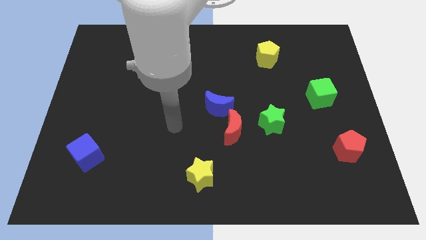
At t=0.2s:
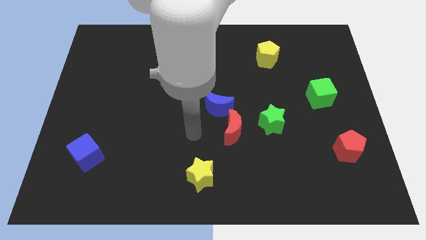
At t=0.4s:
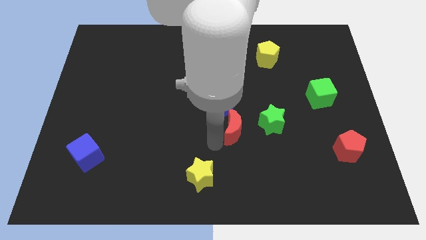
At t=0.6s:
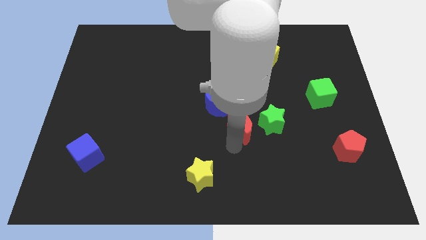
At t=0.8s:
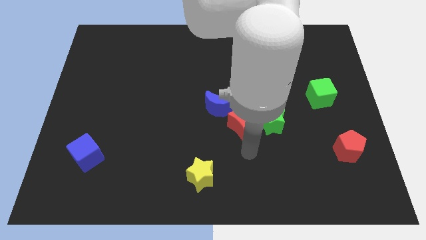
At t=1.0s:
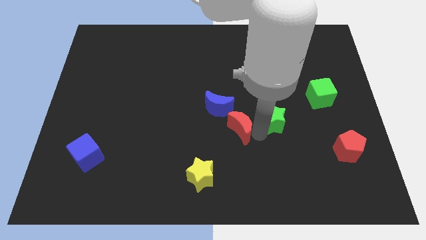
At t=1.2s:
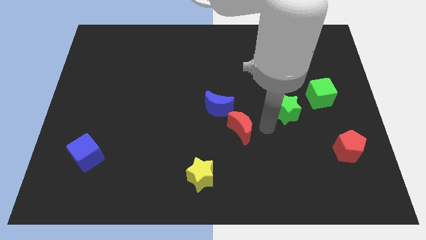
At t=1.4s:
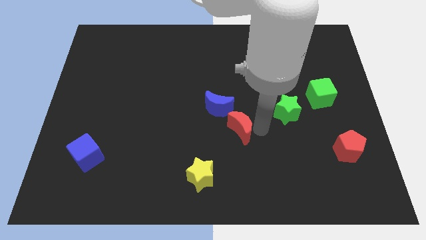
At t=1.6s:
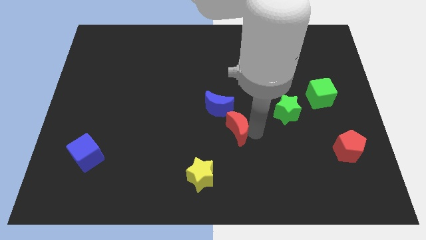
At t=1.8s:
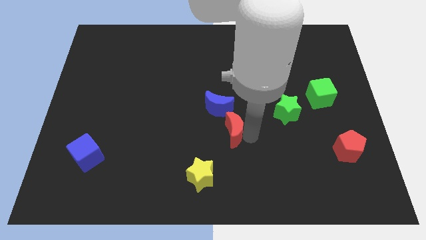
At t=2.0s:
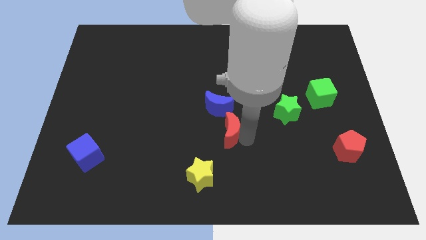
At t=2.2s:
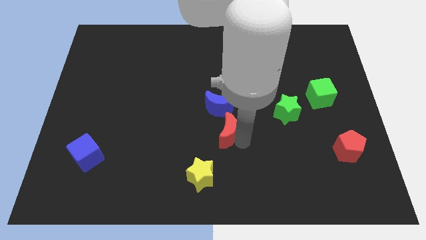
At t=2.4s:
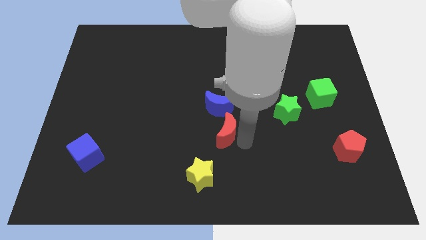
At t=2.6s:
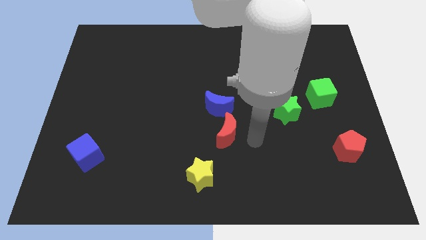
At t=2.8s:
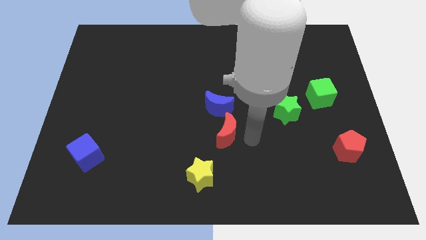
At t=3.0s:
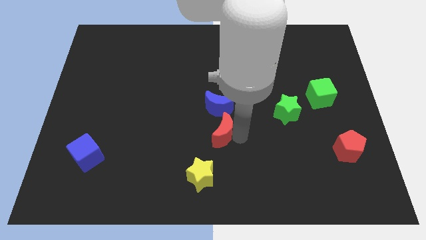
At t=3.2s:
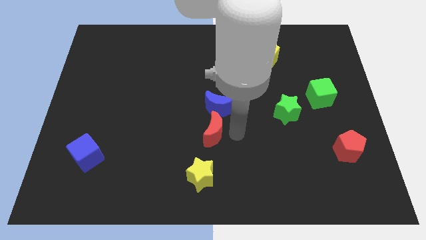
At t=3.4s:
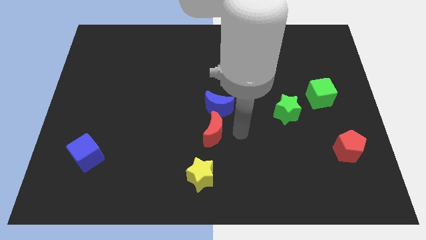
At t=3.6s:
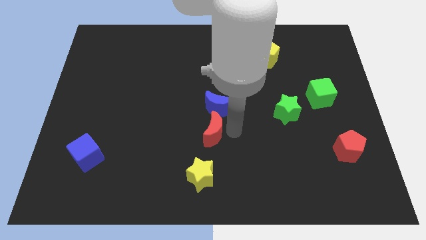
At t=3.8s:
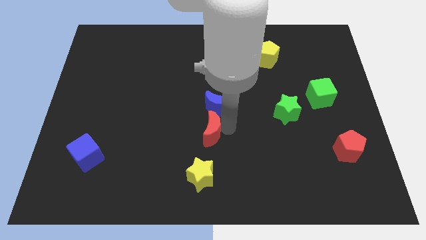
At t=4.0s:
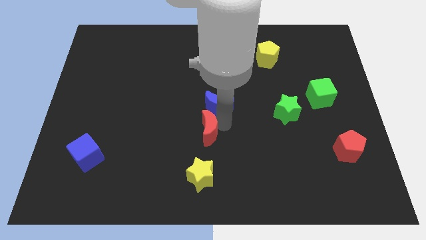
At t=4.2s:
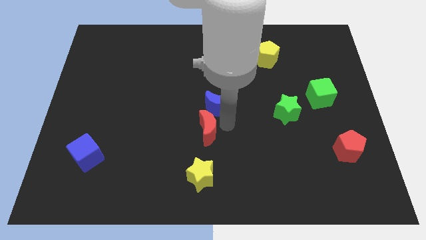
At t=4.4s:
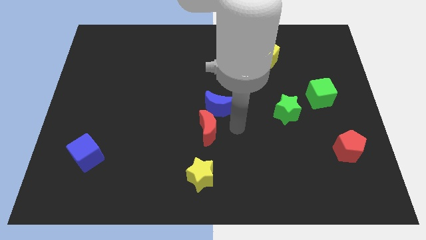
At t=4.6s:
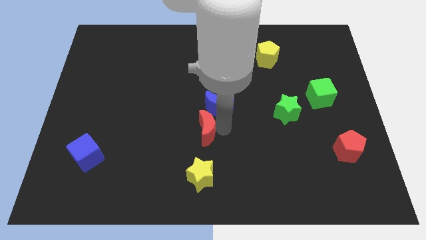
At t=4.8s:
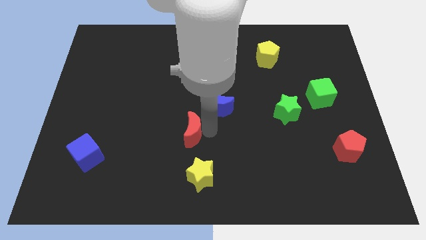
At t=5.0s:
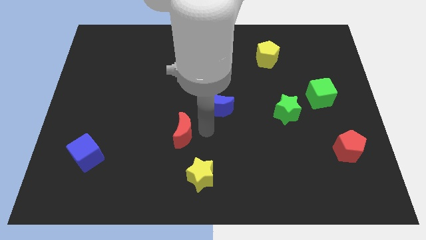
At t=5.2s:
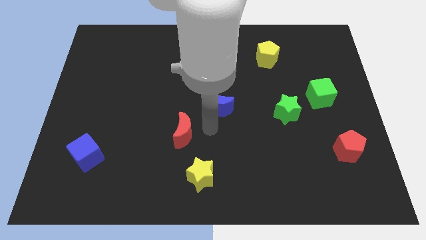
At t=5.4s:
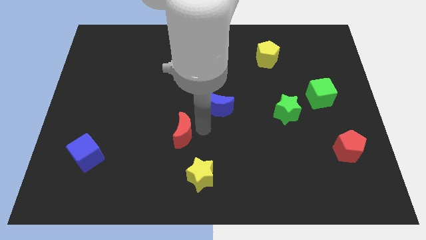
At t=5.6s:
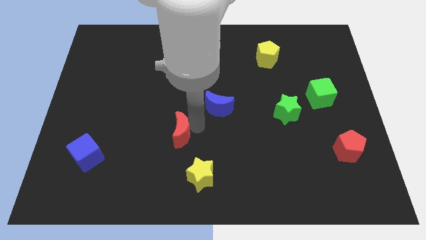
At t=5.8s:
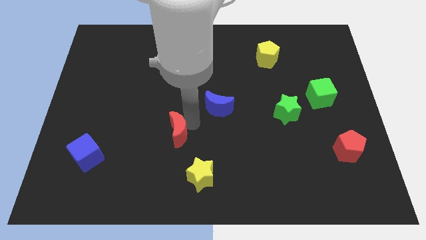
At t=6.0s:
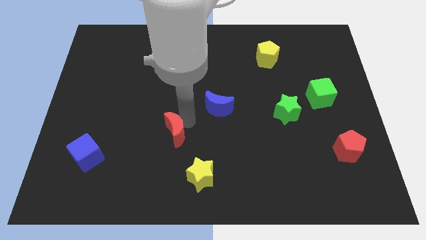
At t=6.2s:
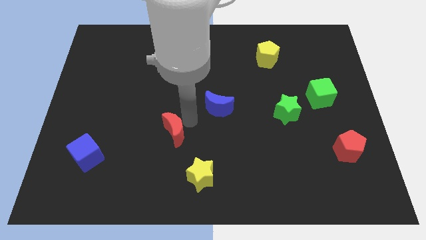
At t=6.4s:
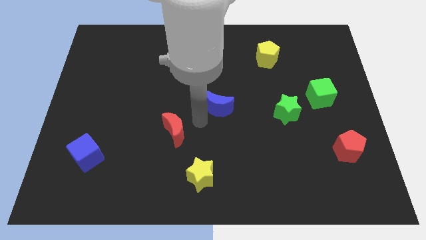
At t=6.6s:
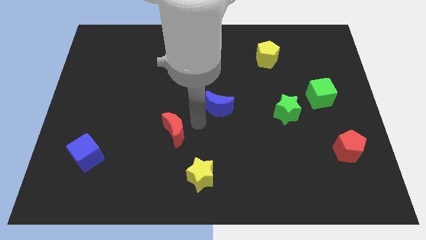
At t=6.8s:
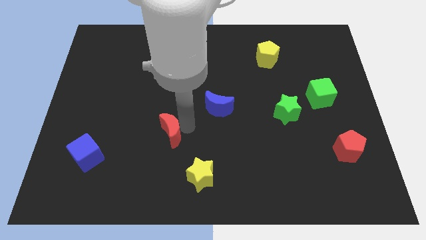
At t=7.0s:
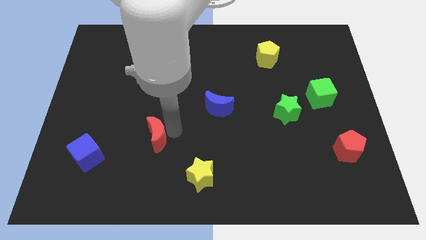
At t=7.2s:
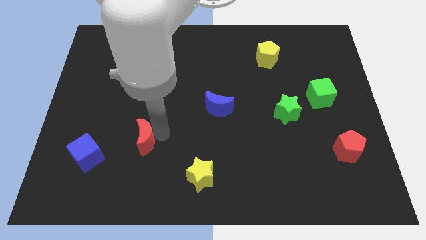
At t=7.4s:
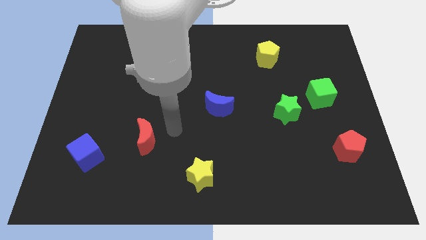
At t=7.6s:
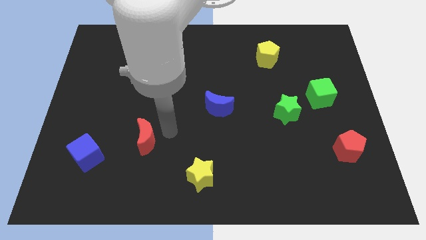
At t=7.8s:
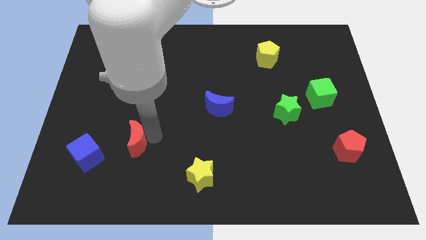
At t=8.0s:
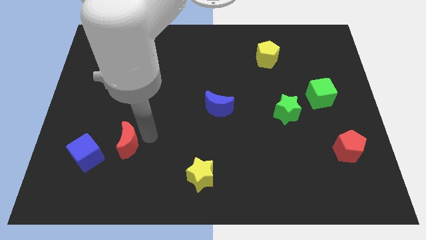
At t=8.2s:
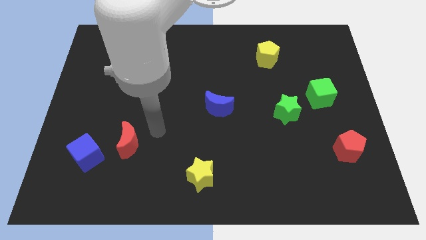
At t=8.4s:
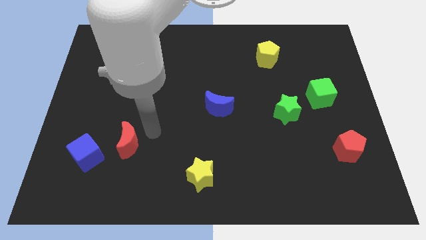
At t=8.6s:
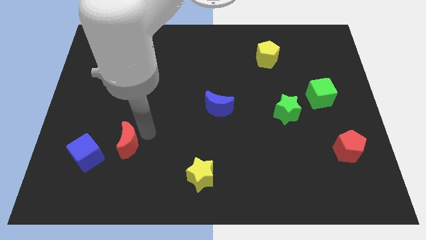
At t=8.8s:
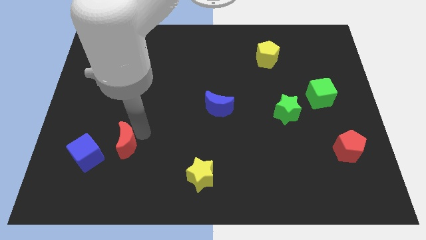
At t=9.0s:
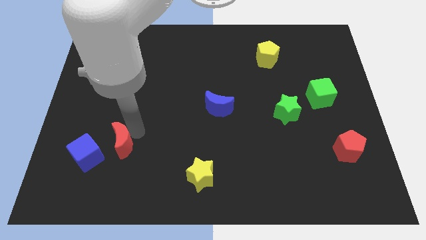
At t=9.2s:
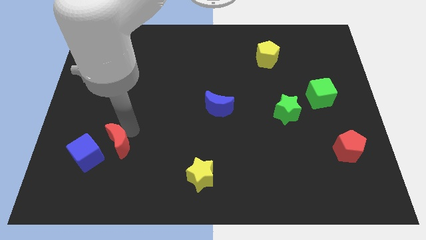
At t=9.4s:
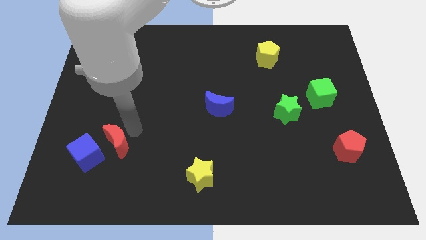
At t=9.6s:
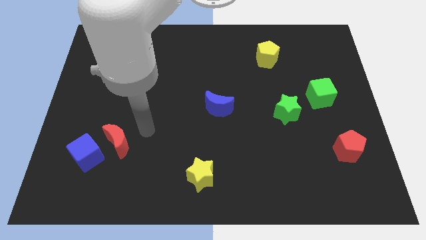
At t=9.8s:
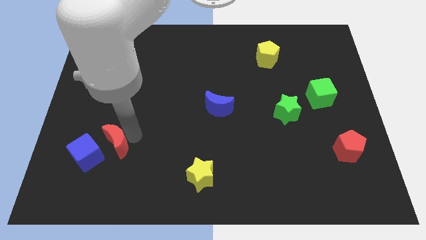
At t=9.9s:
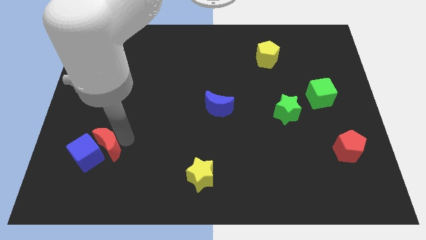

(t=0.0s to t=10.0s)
slide the red moon to the blue cube

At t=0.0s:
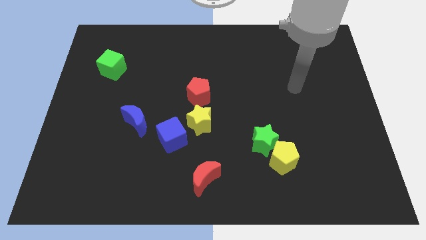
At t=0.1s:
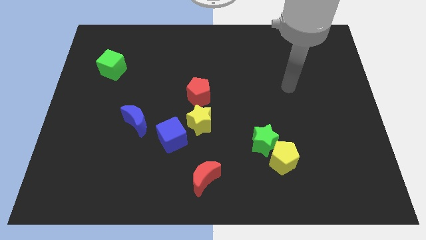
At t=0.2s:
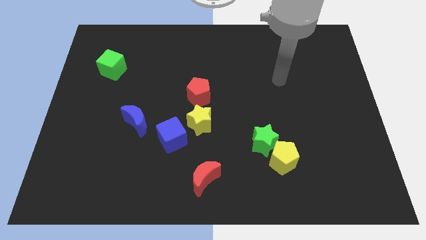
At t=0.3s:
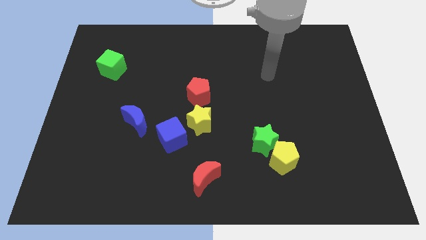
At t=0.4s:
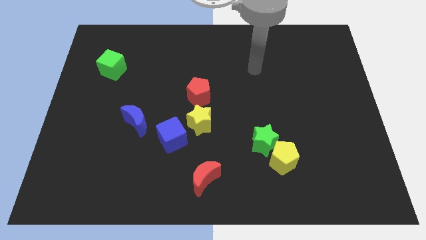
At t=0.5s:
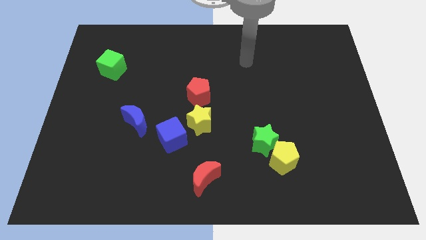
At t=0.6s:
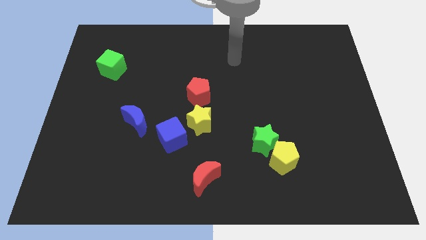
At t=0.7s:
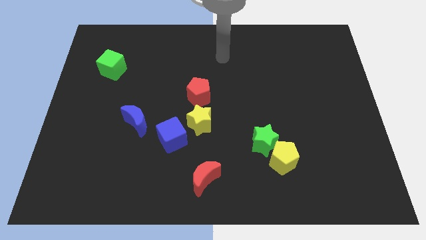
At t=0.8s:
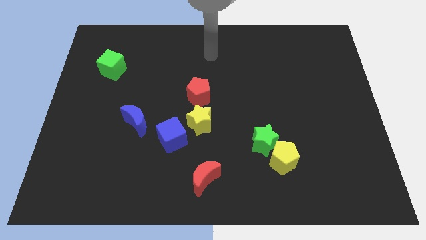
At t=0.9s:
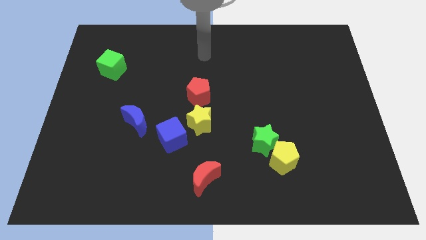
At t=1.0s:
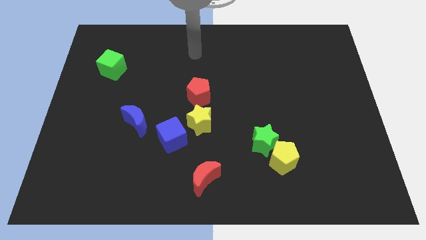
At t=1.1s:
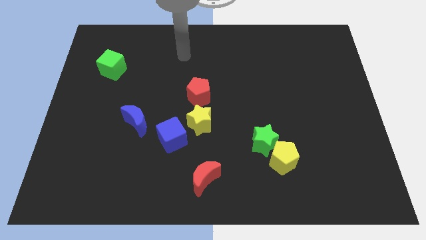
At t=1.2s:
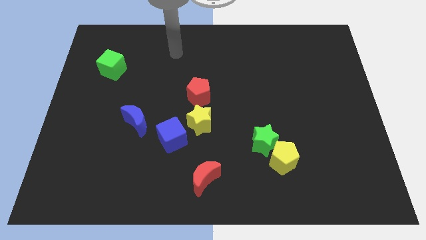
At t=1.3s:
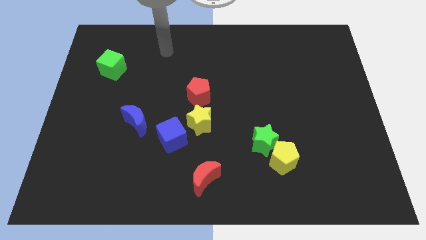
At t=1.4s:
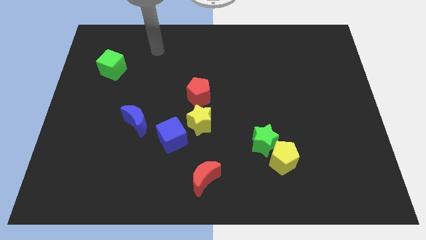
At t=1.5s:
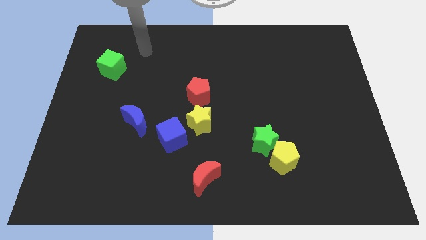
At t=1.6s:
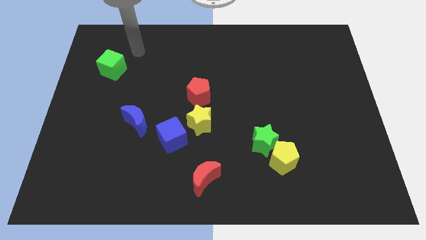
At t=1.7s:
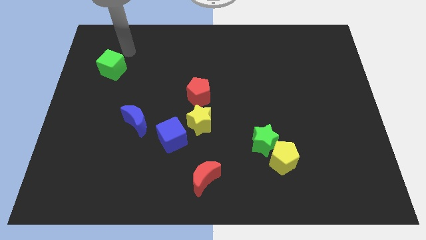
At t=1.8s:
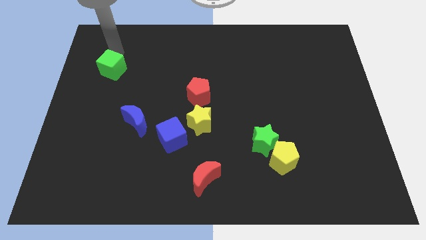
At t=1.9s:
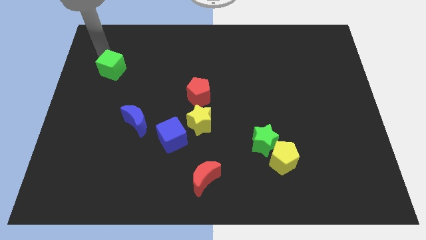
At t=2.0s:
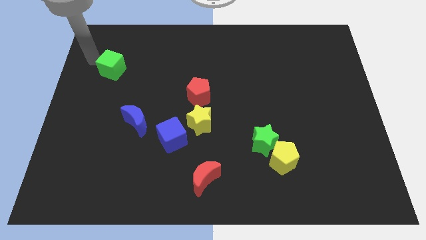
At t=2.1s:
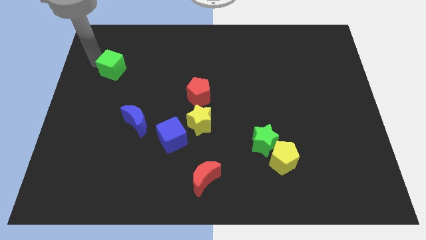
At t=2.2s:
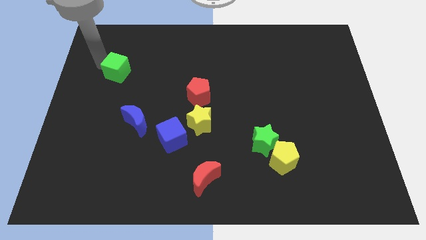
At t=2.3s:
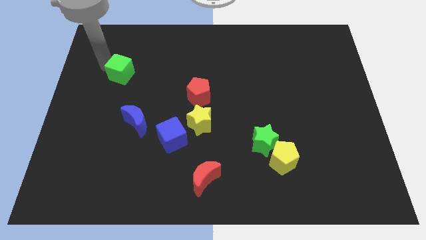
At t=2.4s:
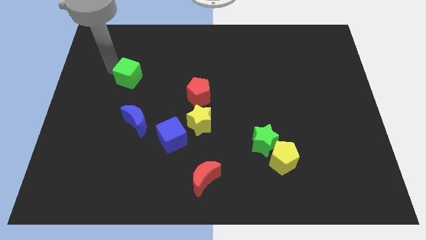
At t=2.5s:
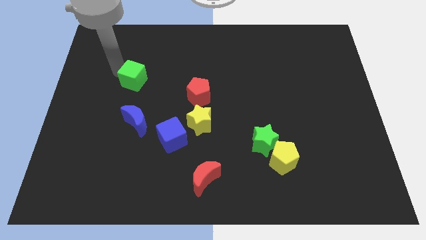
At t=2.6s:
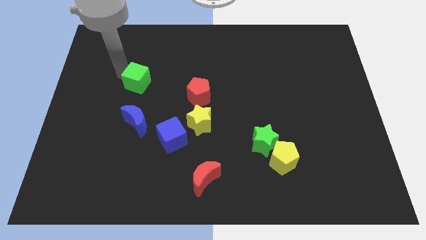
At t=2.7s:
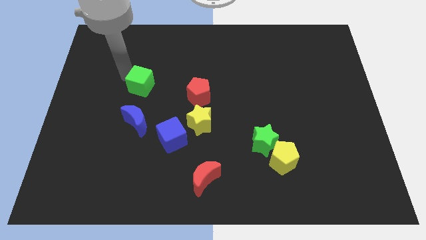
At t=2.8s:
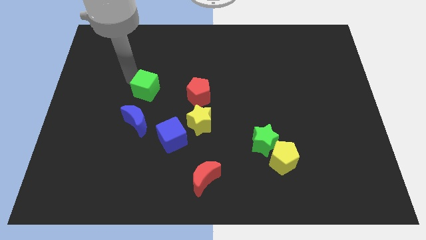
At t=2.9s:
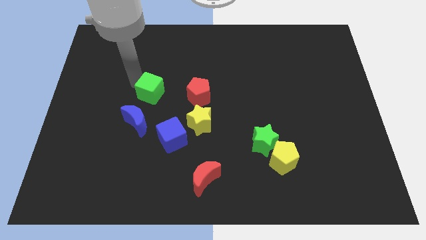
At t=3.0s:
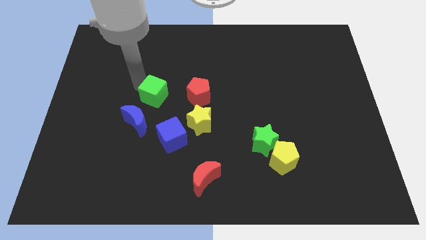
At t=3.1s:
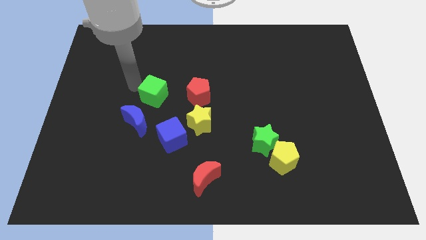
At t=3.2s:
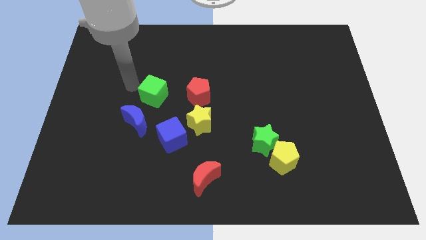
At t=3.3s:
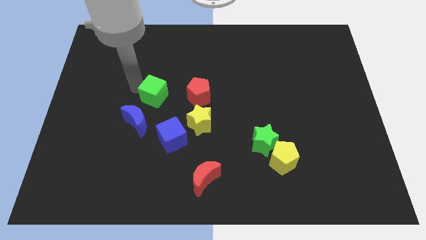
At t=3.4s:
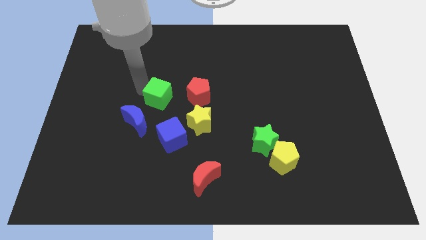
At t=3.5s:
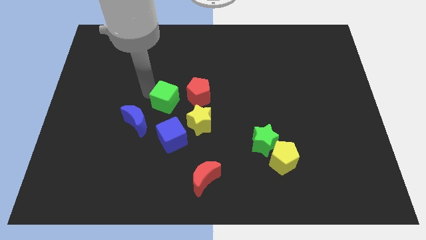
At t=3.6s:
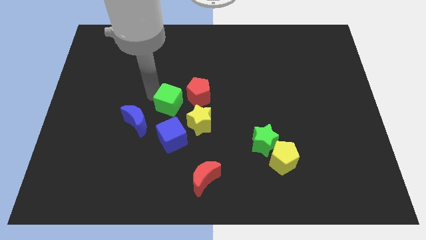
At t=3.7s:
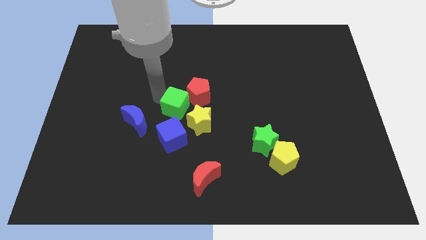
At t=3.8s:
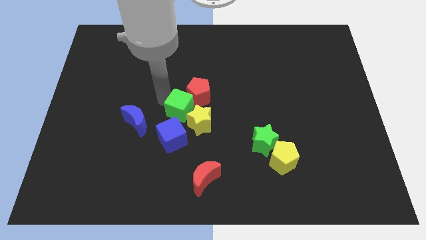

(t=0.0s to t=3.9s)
move the green cube close to the yellow star
